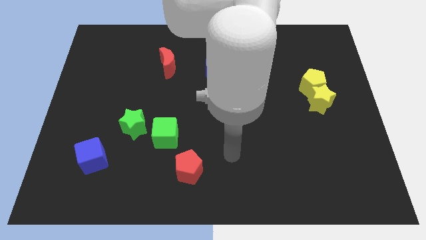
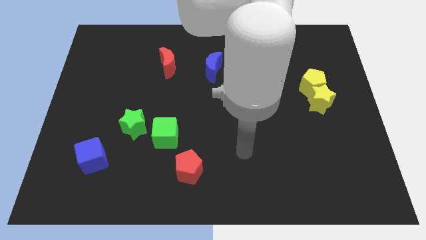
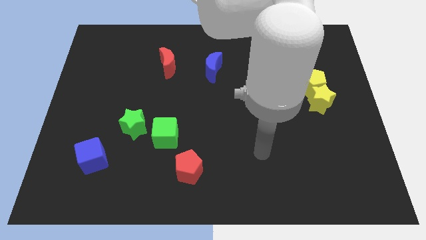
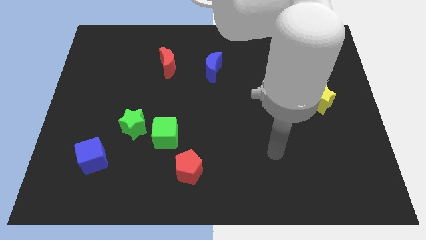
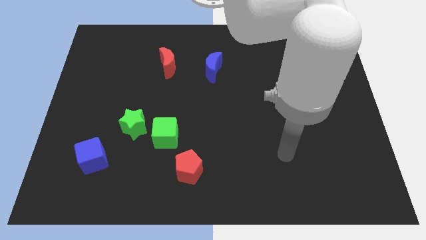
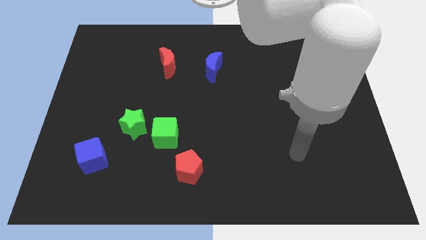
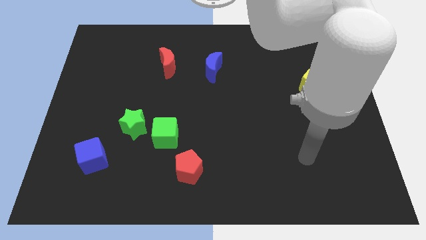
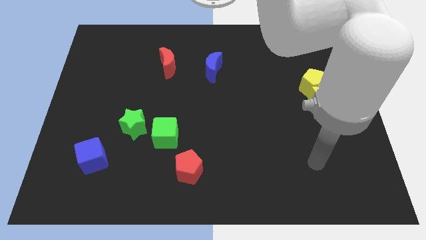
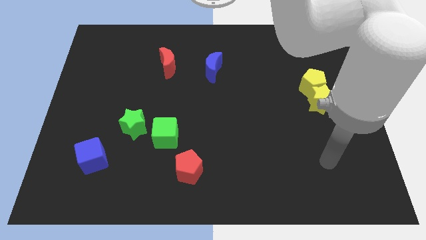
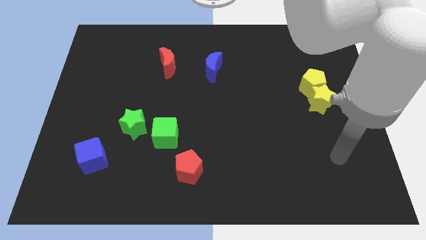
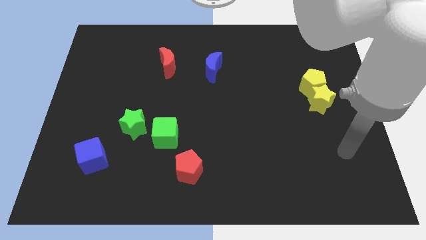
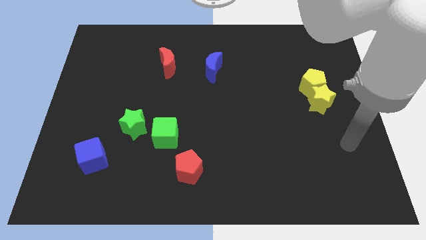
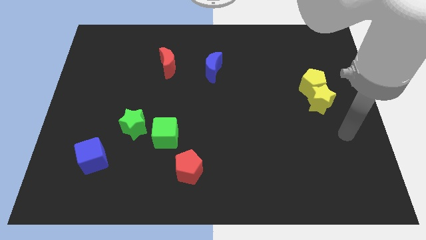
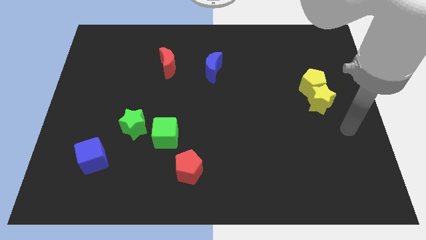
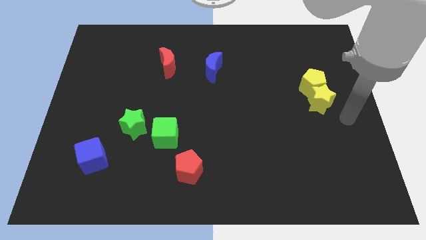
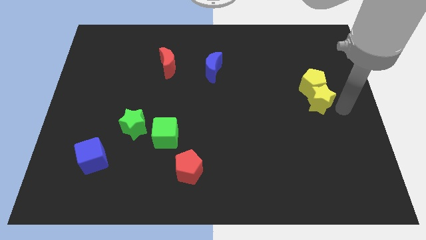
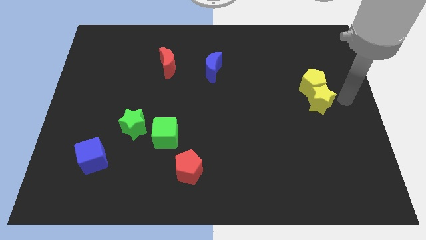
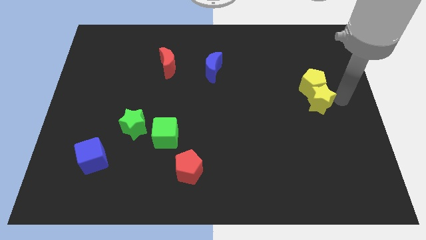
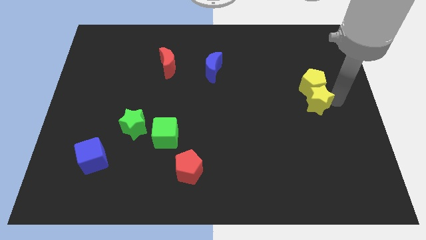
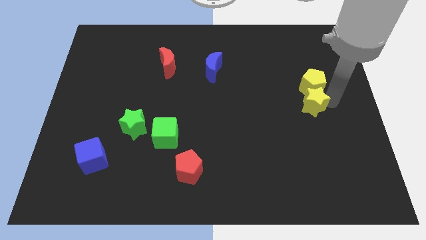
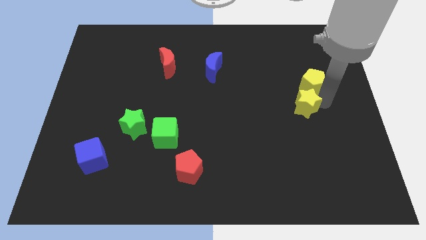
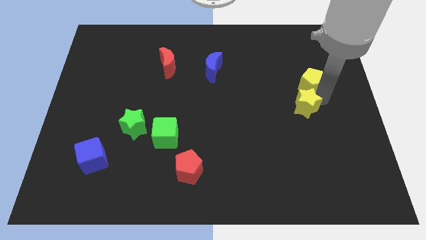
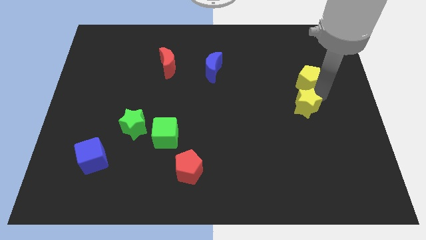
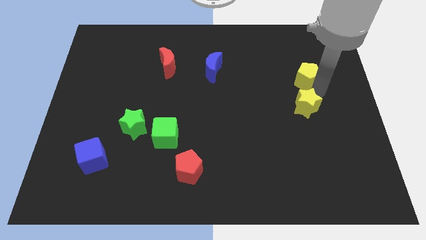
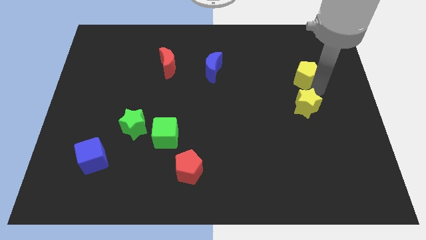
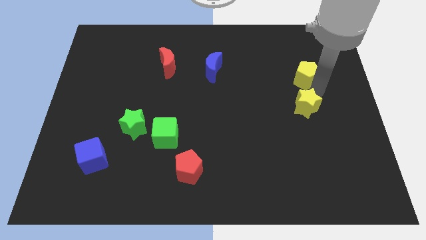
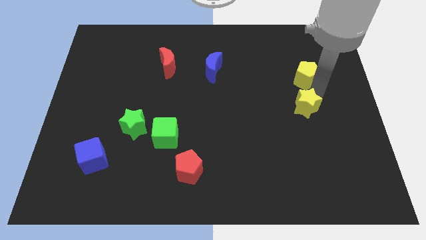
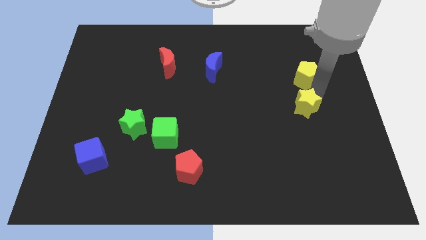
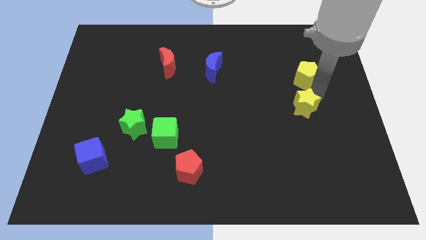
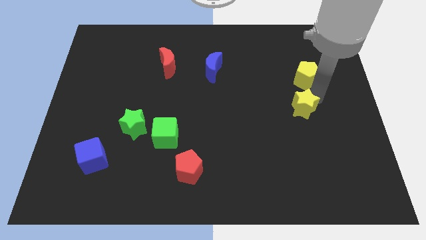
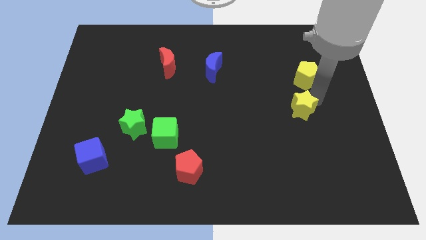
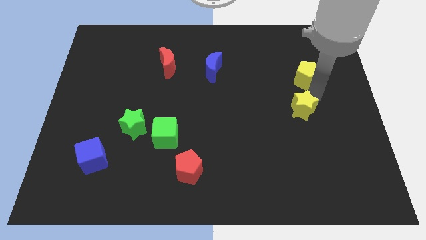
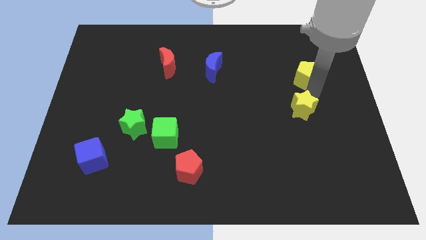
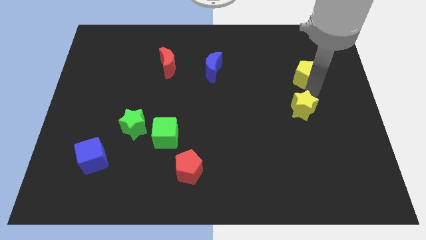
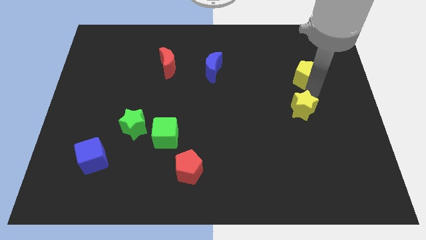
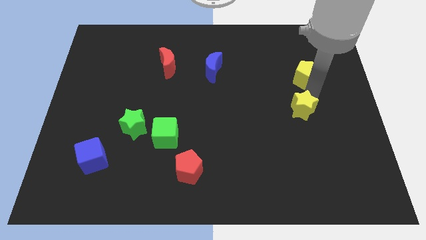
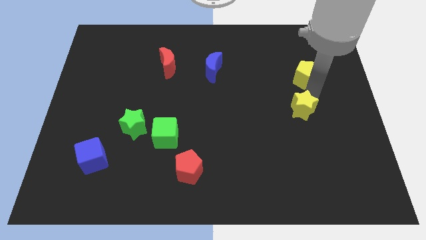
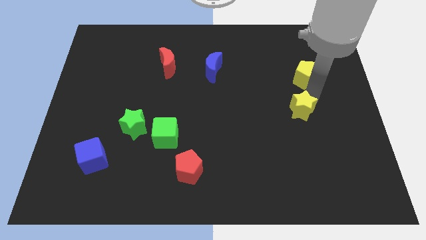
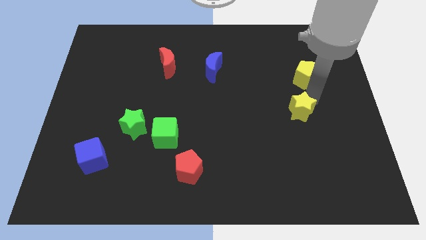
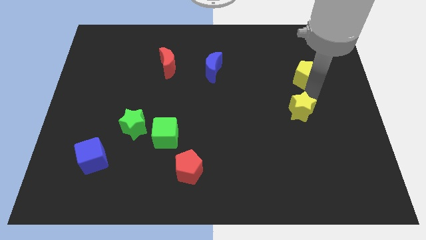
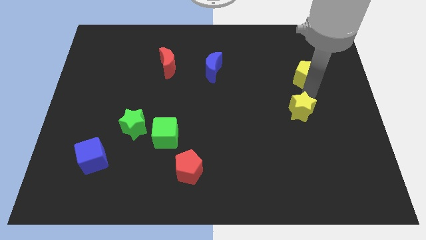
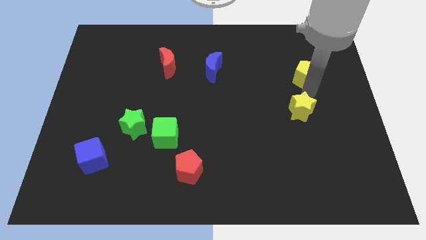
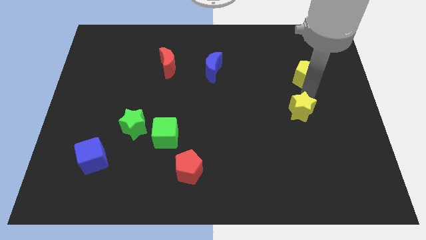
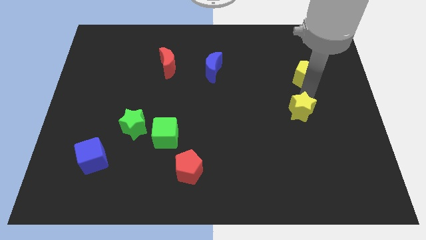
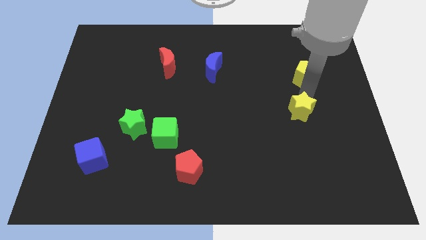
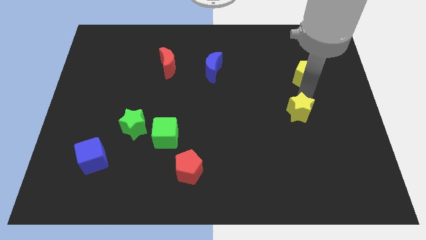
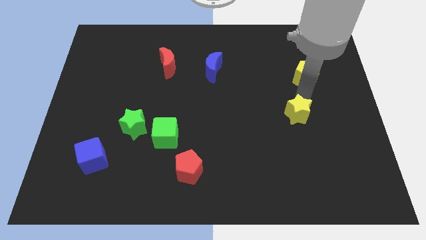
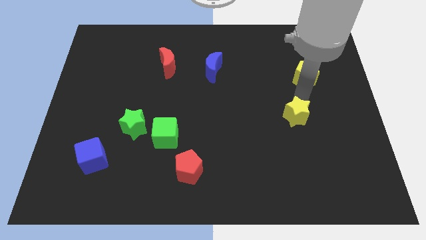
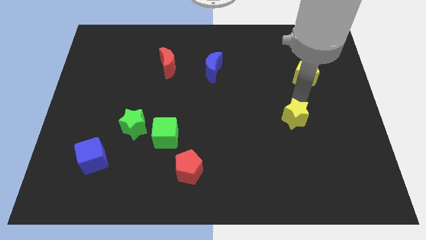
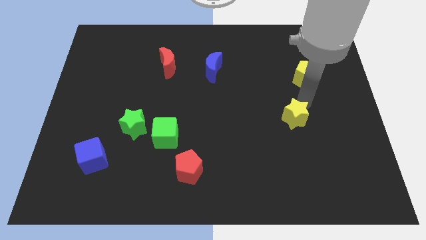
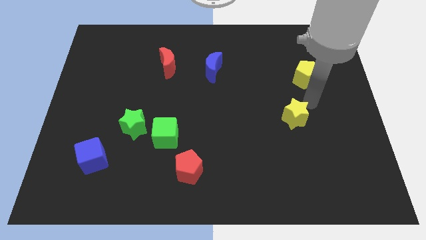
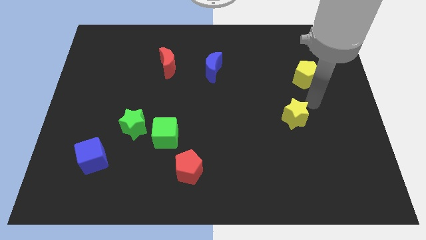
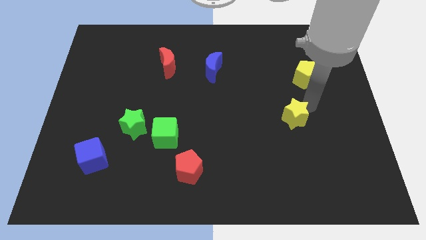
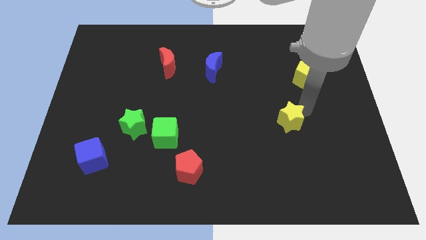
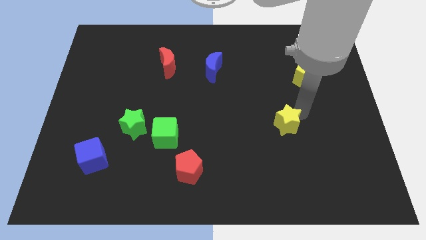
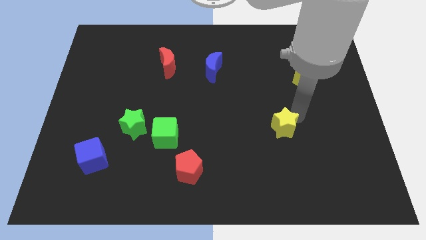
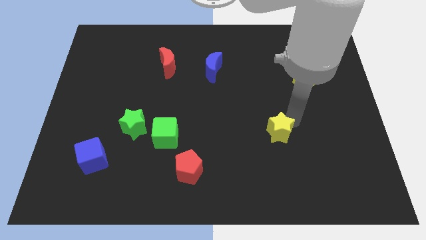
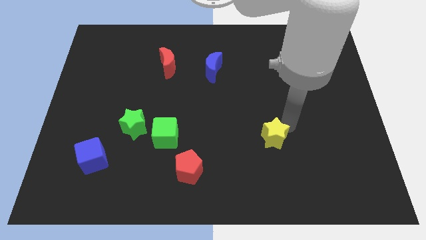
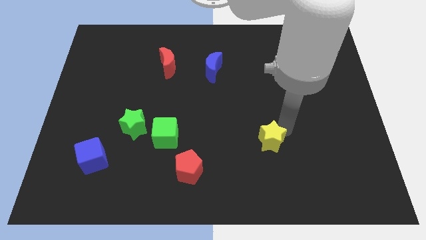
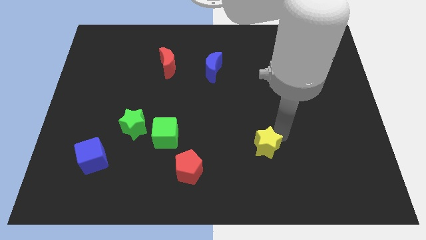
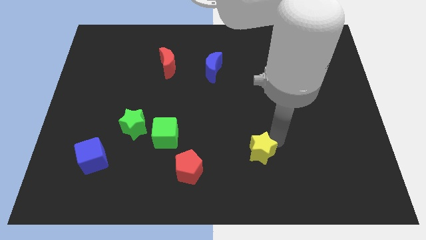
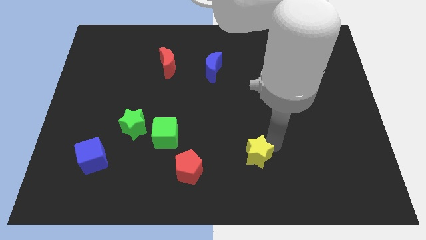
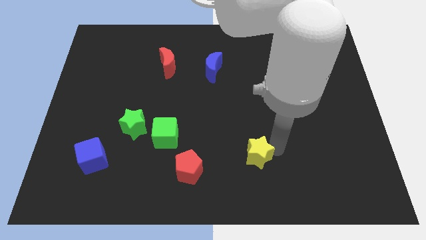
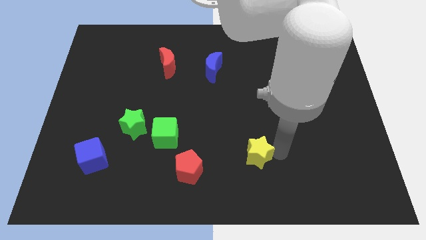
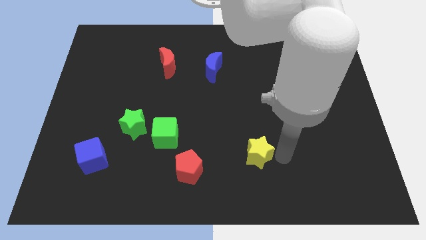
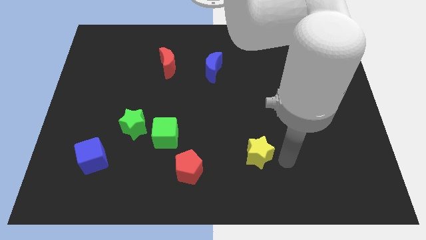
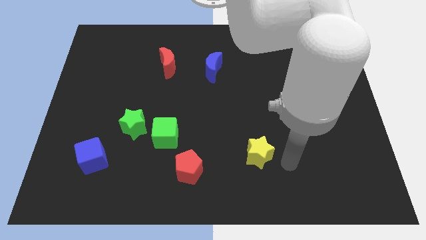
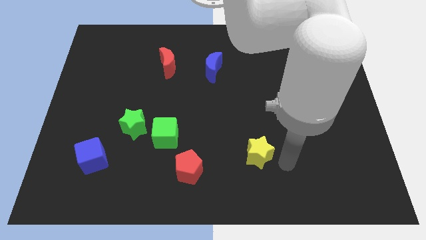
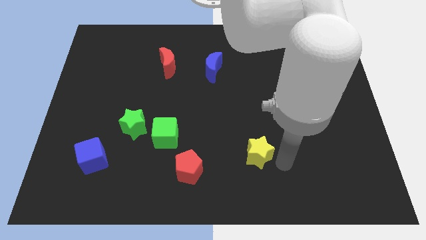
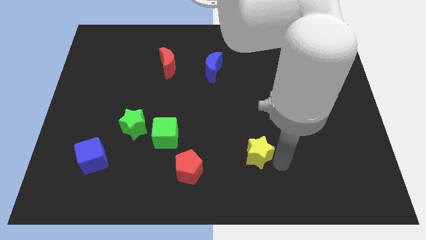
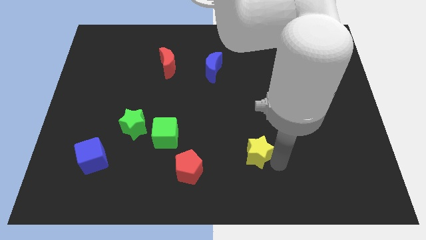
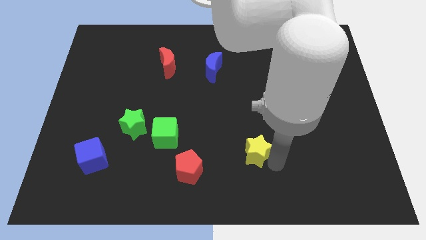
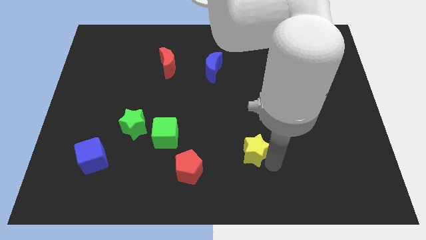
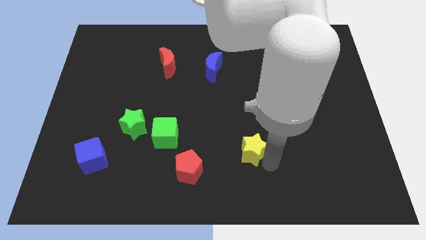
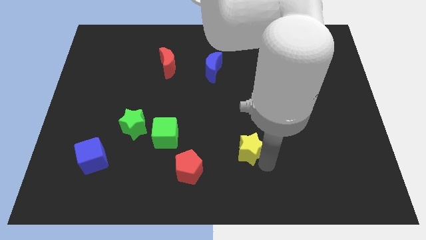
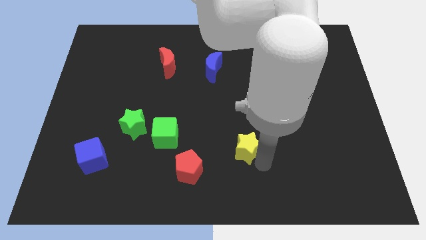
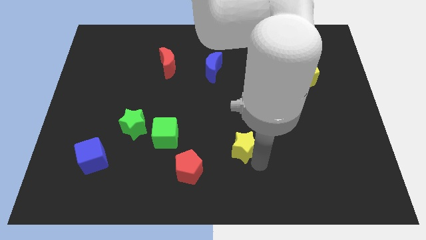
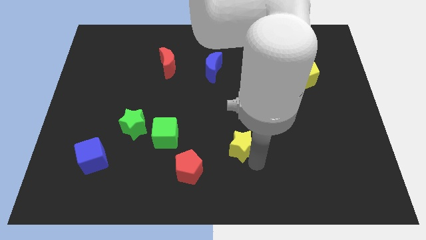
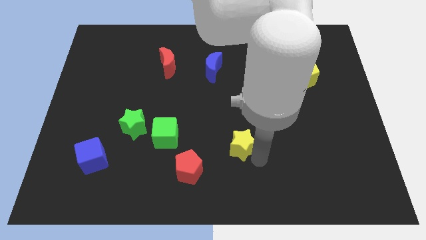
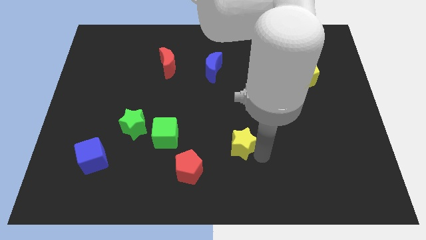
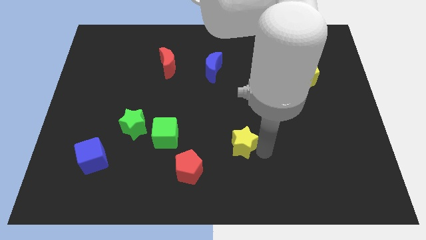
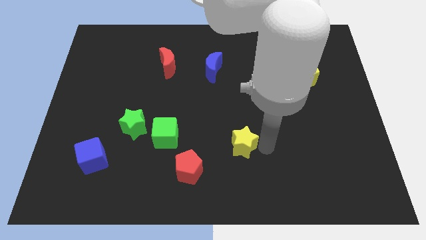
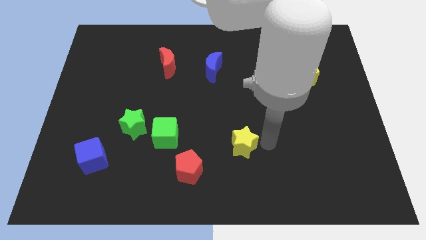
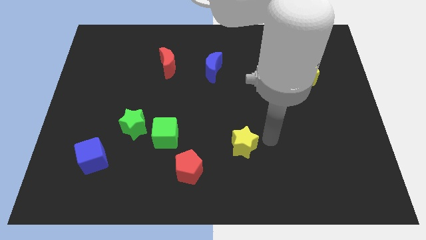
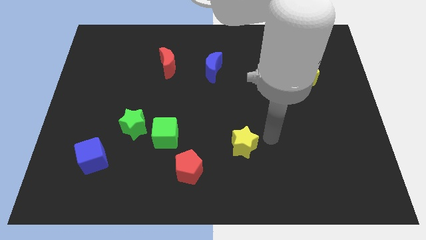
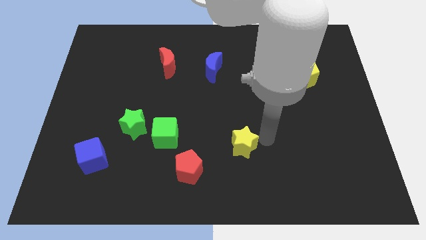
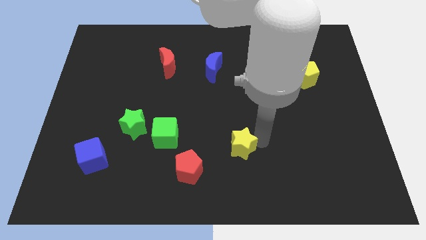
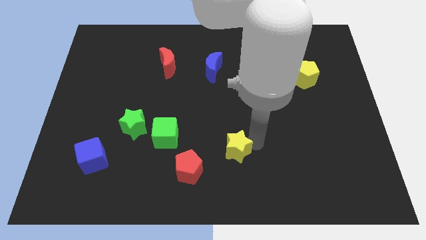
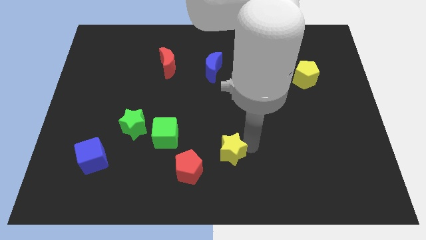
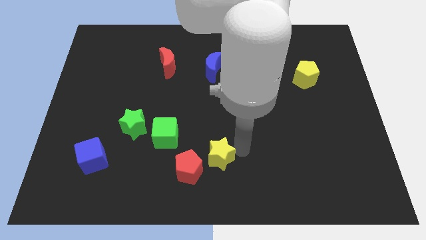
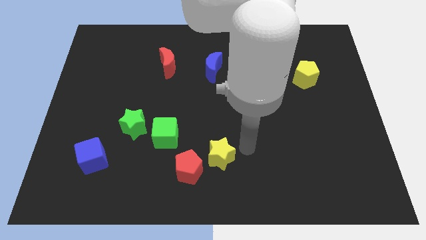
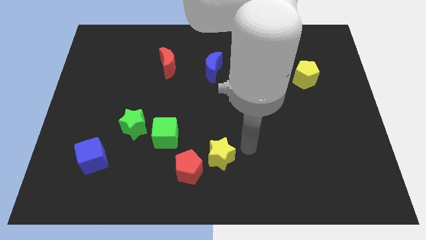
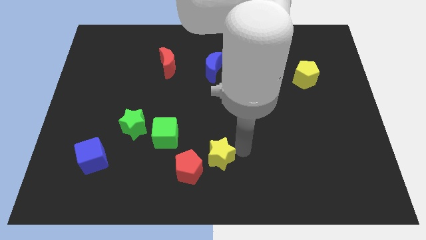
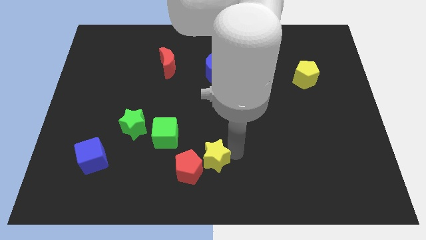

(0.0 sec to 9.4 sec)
push the yellow star towards the red pentagon
